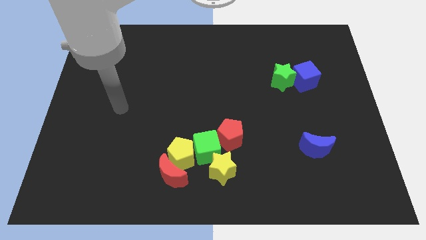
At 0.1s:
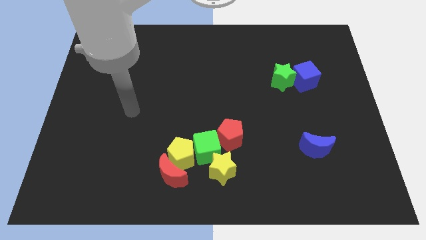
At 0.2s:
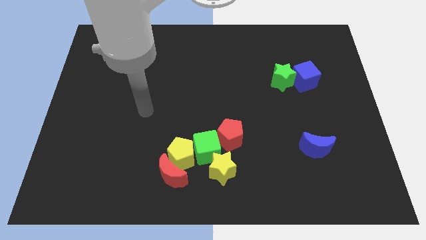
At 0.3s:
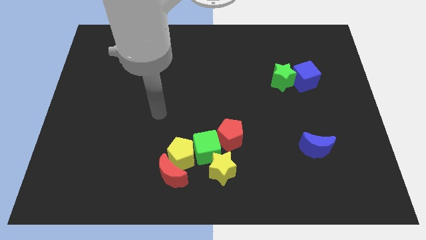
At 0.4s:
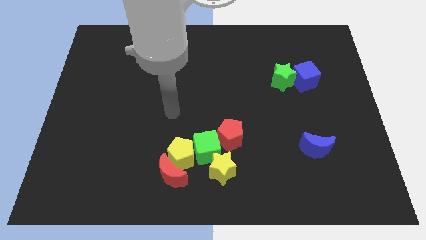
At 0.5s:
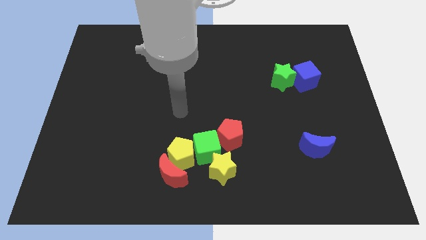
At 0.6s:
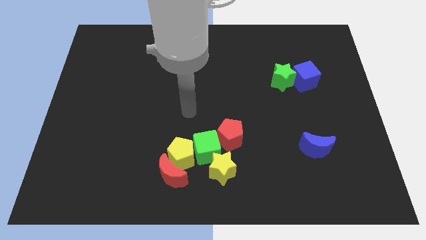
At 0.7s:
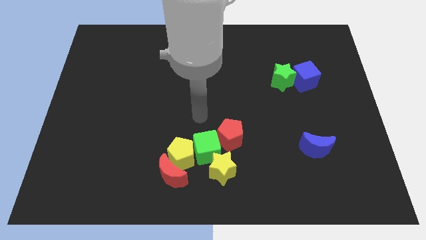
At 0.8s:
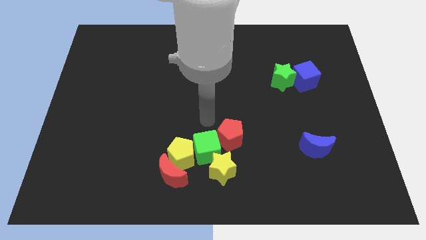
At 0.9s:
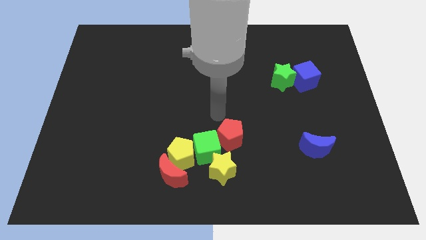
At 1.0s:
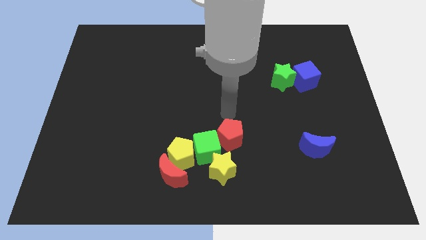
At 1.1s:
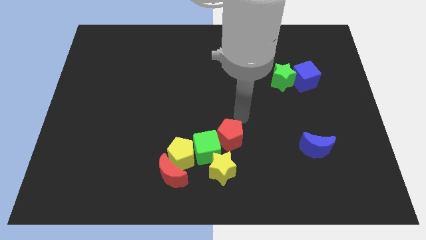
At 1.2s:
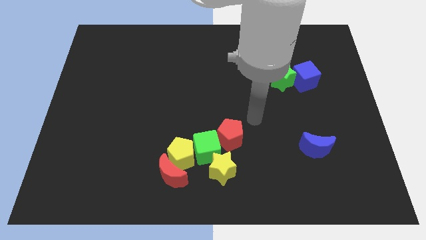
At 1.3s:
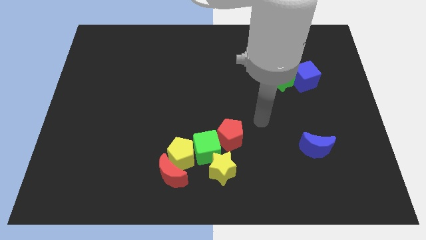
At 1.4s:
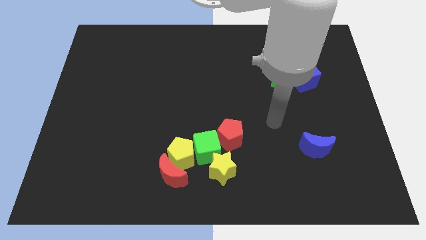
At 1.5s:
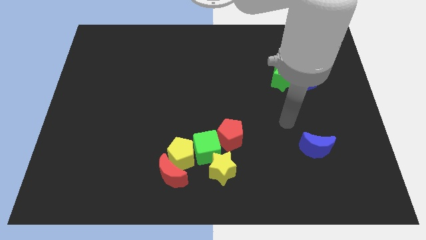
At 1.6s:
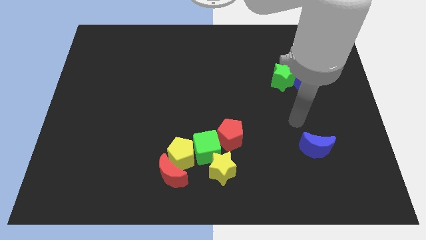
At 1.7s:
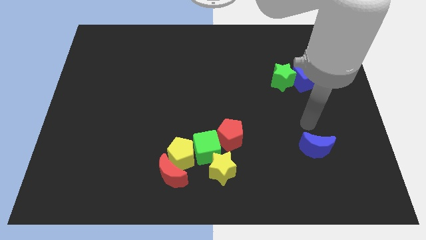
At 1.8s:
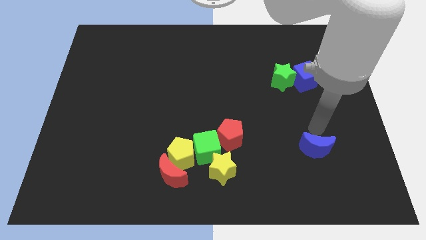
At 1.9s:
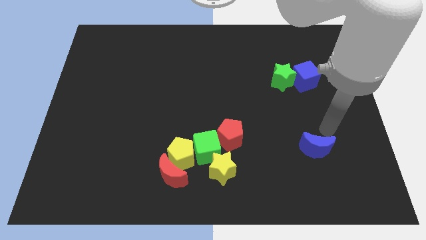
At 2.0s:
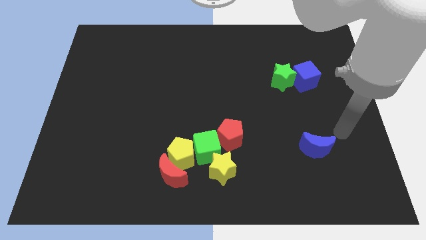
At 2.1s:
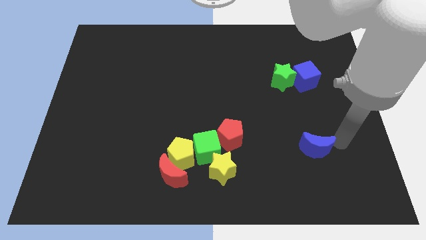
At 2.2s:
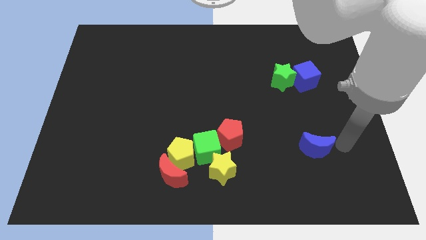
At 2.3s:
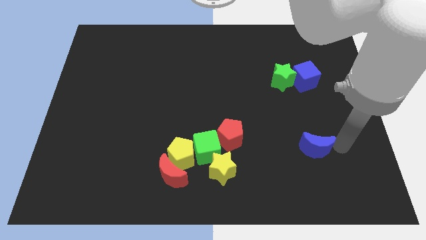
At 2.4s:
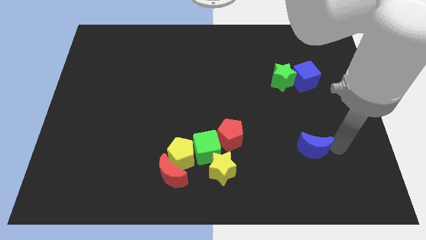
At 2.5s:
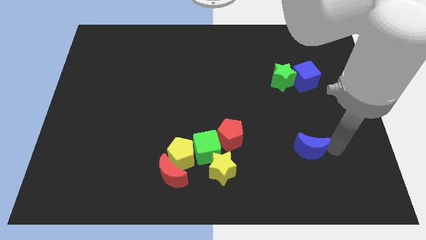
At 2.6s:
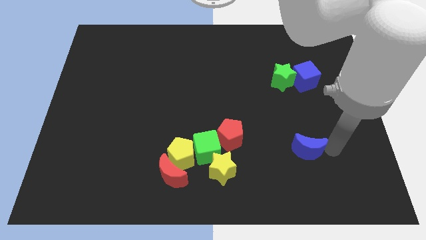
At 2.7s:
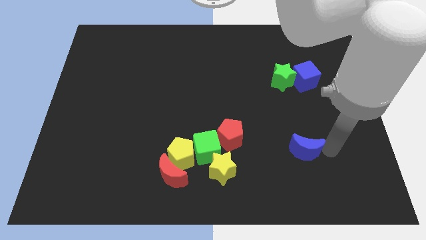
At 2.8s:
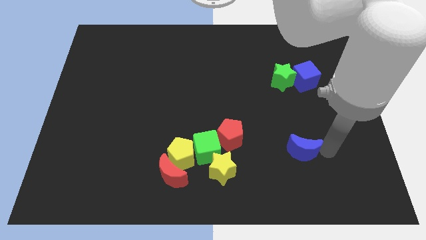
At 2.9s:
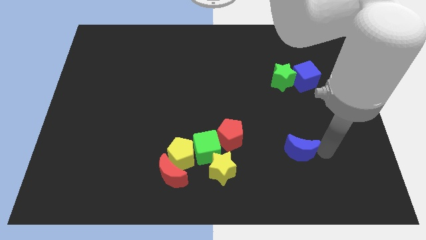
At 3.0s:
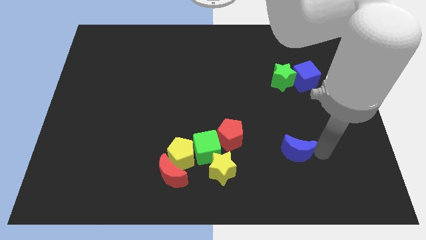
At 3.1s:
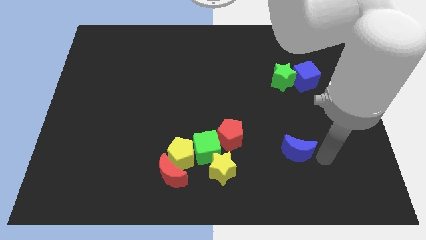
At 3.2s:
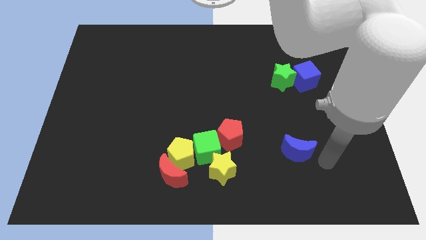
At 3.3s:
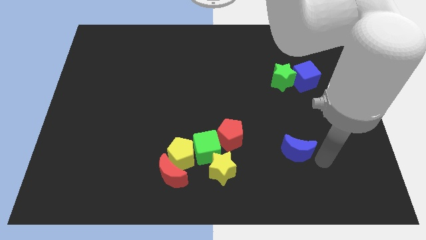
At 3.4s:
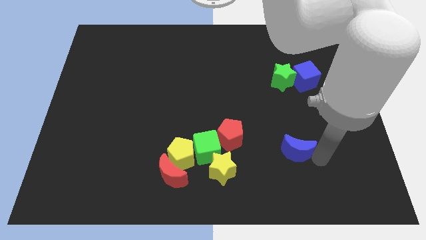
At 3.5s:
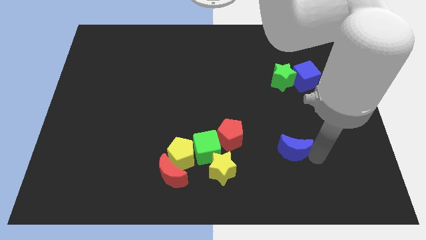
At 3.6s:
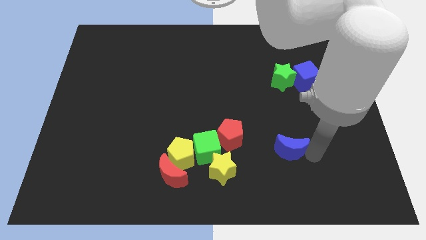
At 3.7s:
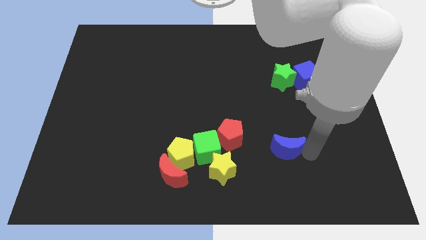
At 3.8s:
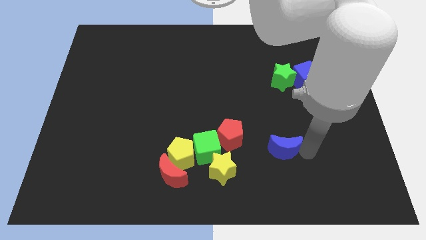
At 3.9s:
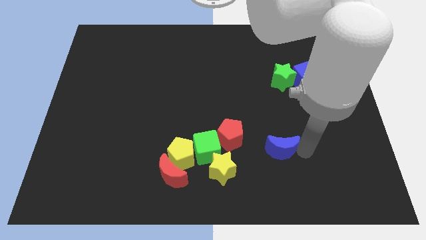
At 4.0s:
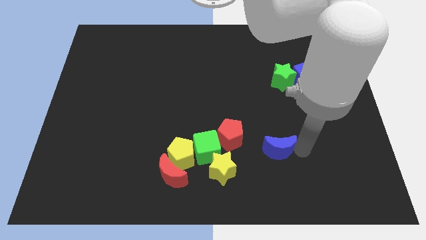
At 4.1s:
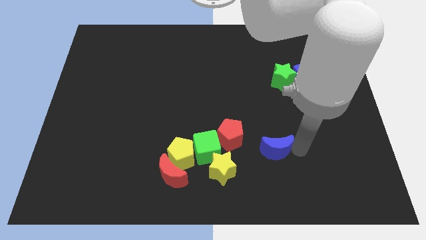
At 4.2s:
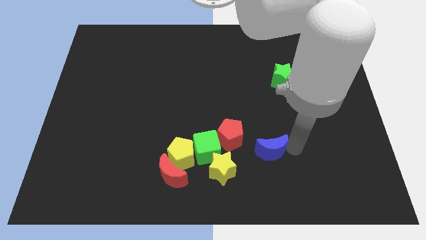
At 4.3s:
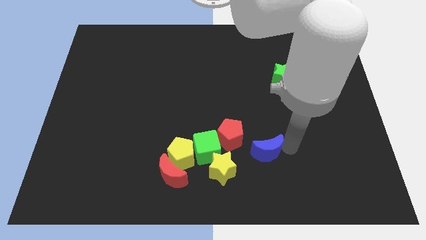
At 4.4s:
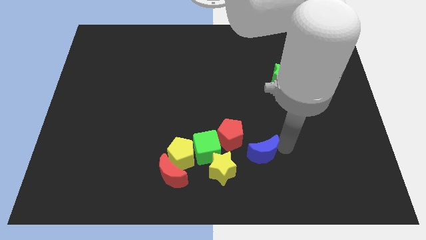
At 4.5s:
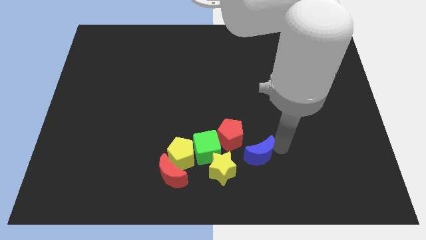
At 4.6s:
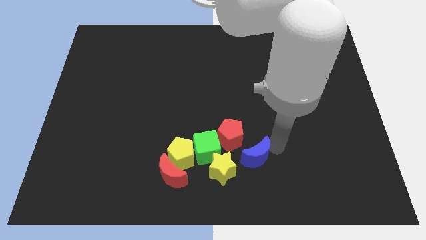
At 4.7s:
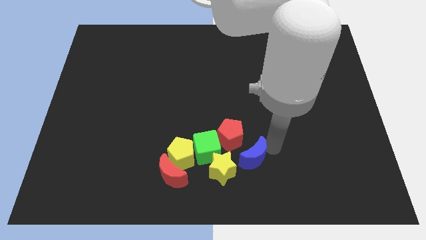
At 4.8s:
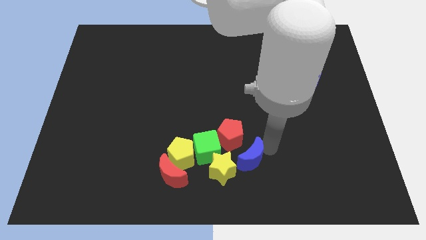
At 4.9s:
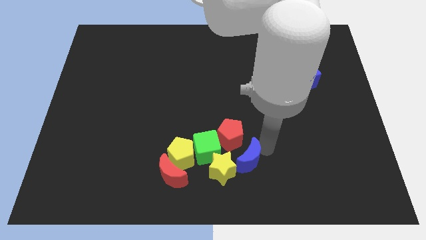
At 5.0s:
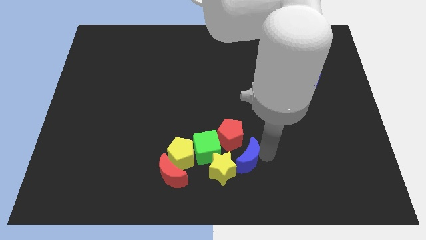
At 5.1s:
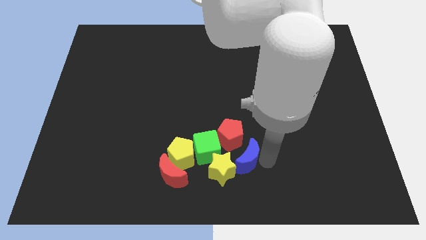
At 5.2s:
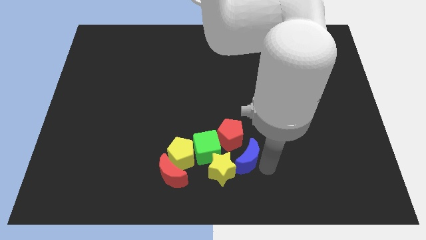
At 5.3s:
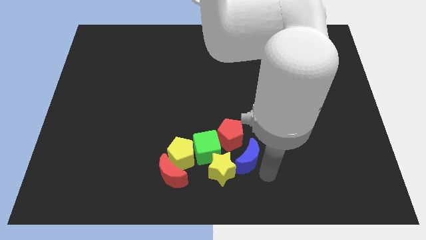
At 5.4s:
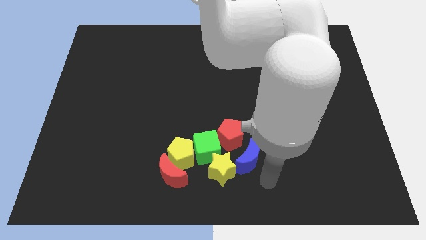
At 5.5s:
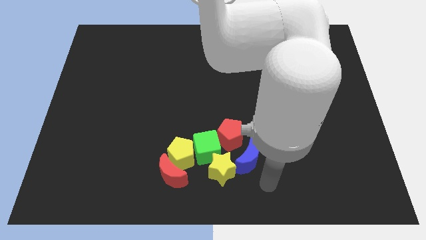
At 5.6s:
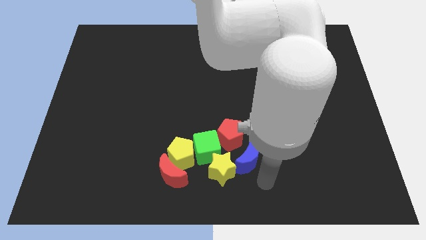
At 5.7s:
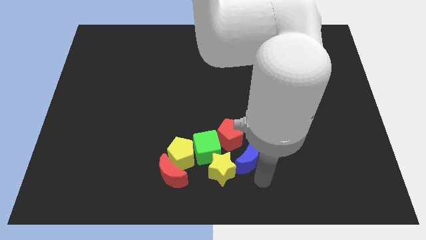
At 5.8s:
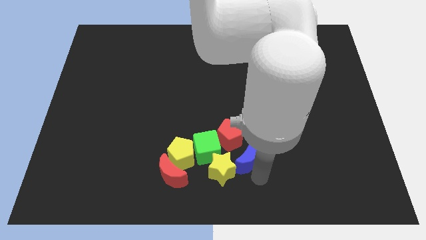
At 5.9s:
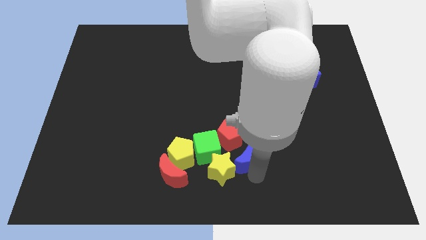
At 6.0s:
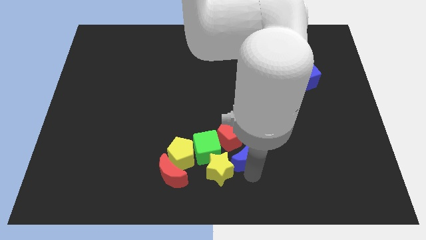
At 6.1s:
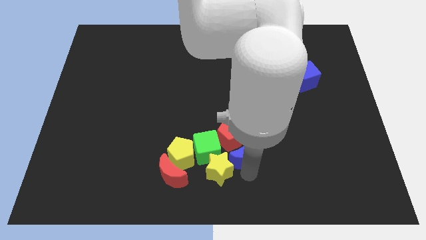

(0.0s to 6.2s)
move the blue moon next to the red pentagon

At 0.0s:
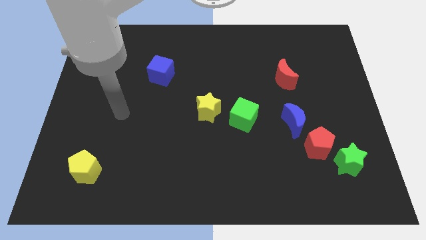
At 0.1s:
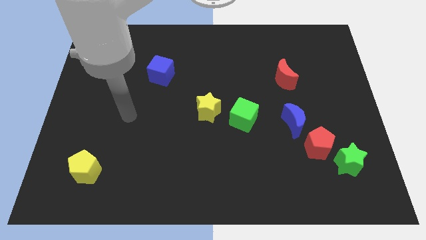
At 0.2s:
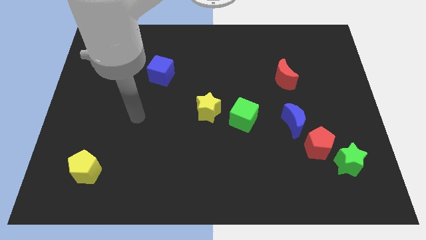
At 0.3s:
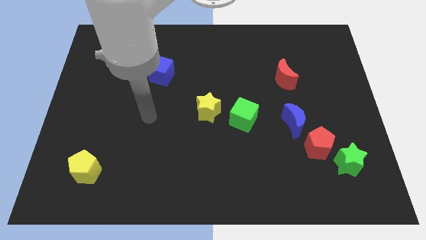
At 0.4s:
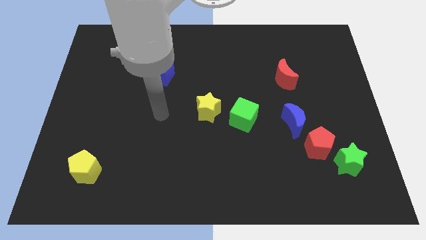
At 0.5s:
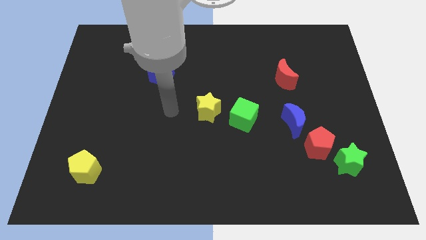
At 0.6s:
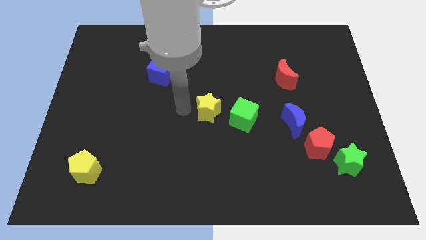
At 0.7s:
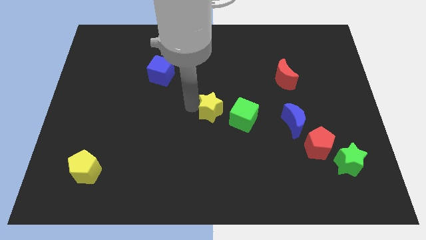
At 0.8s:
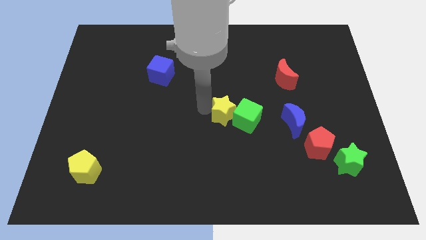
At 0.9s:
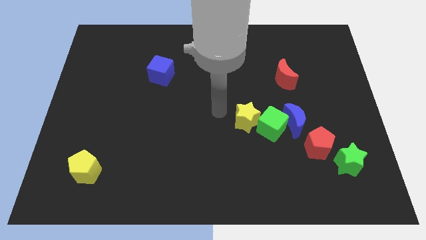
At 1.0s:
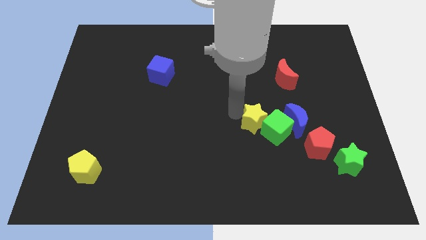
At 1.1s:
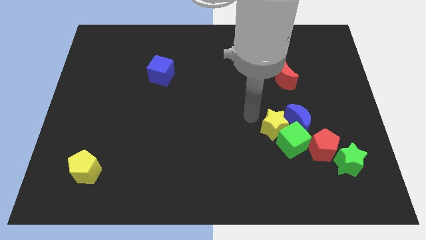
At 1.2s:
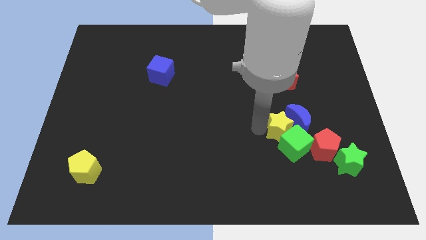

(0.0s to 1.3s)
slide the green cube close to the red pentagon
